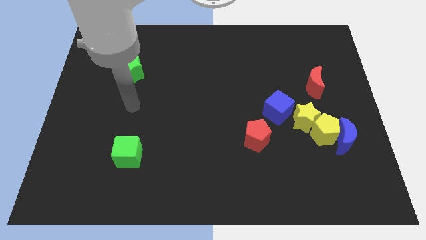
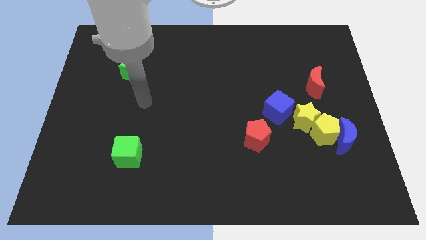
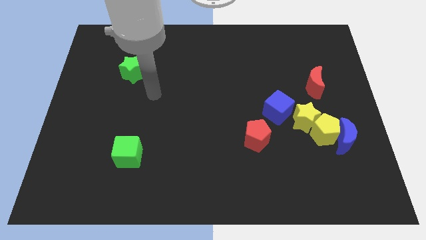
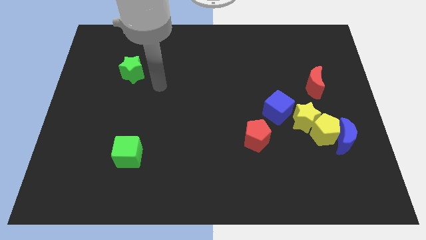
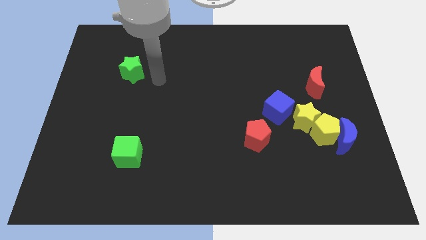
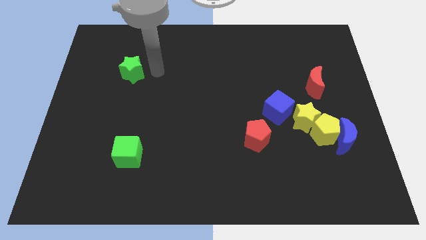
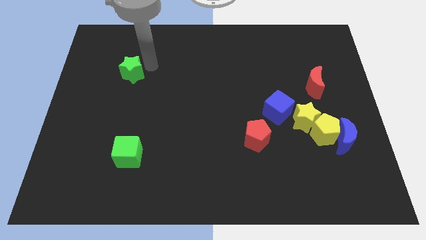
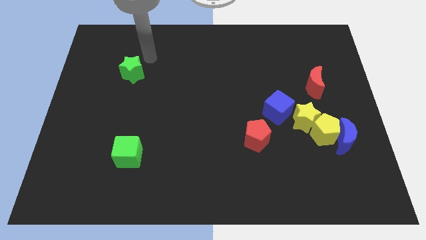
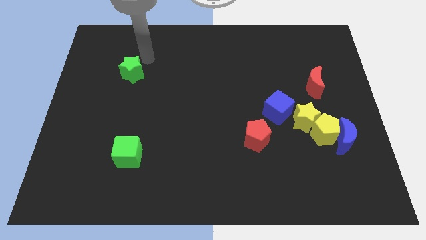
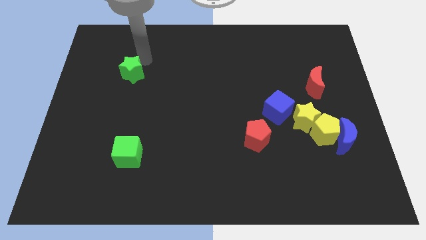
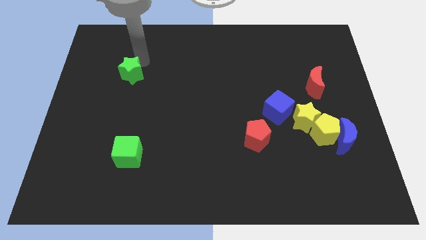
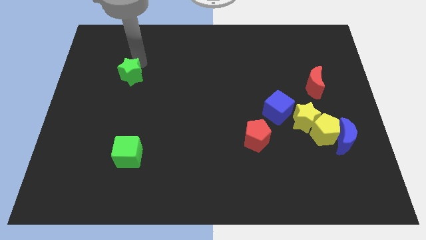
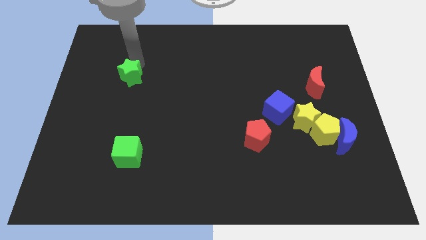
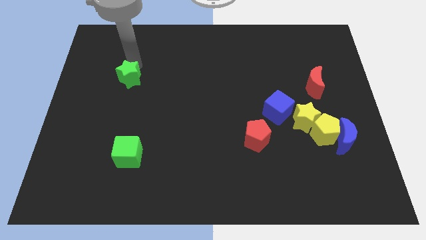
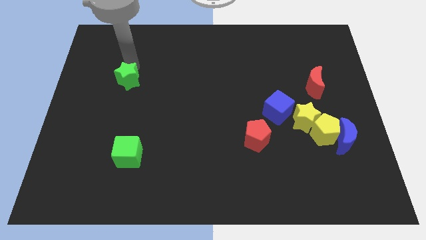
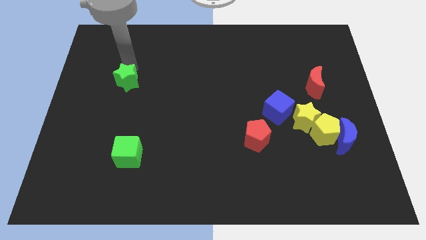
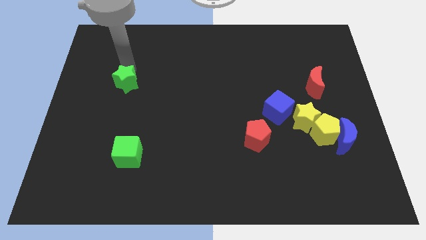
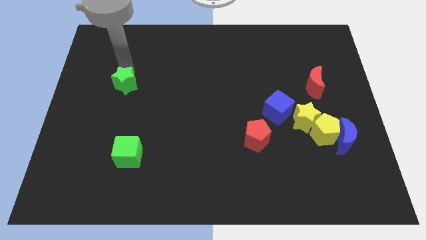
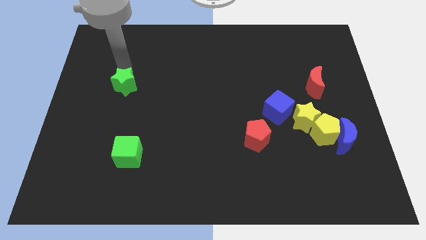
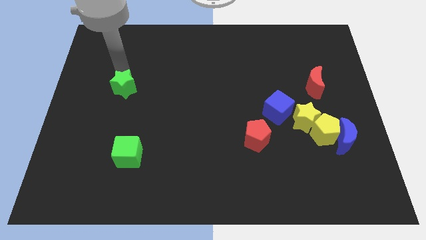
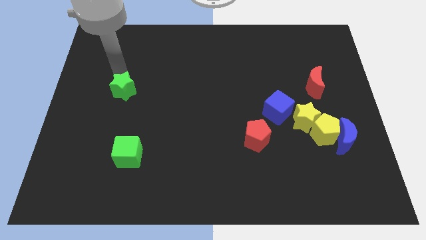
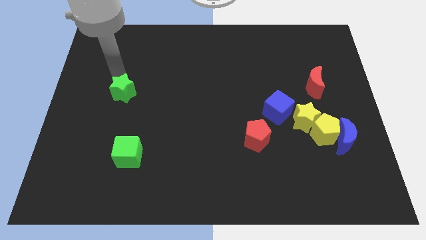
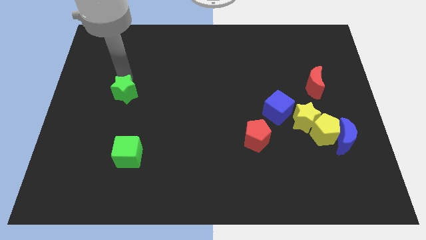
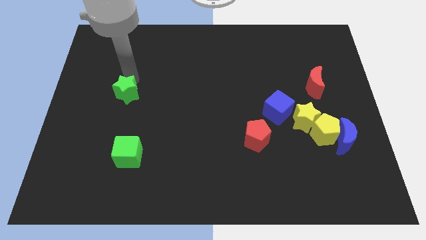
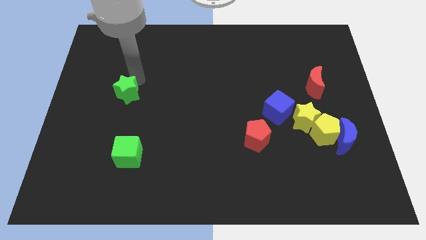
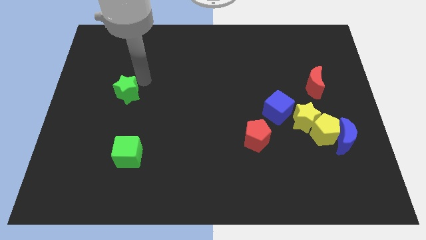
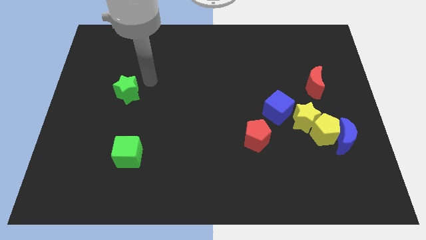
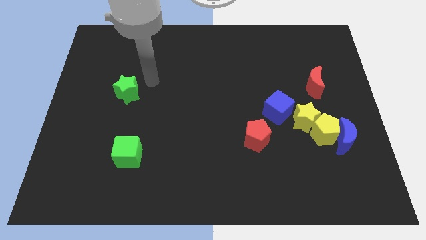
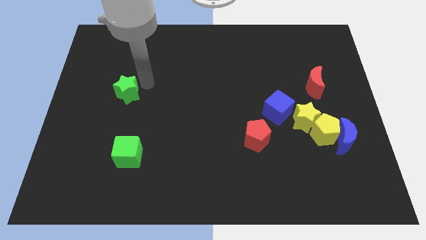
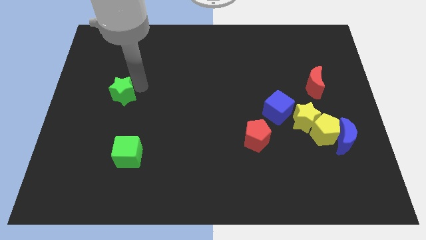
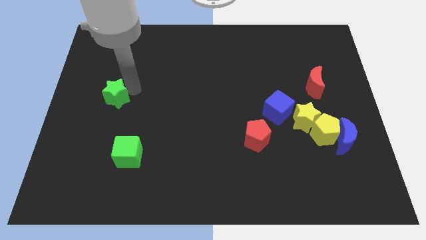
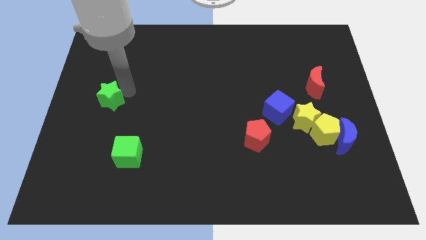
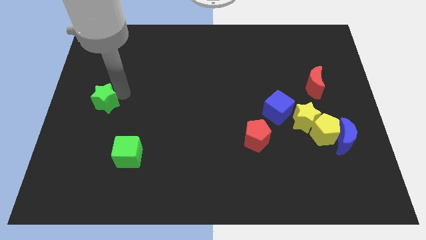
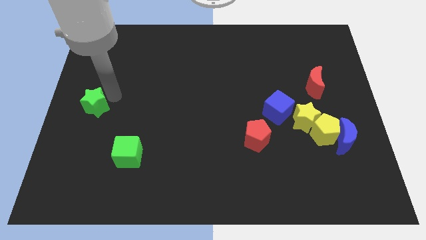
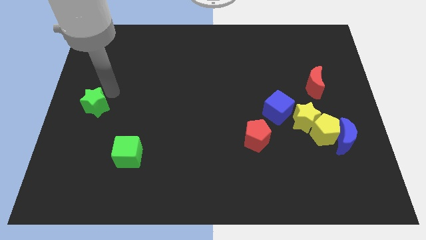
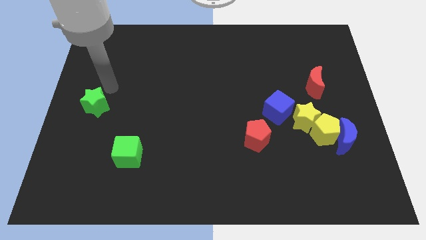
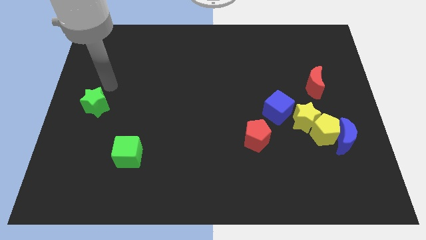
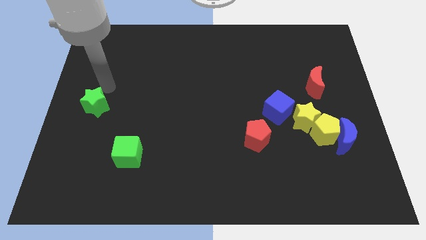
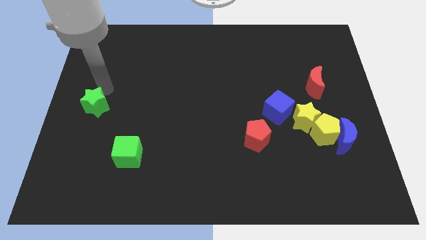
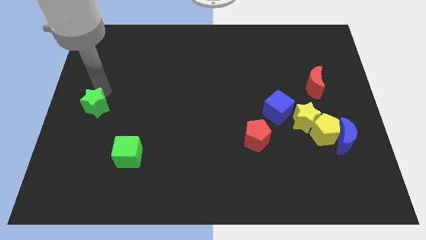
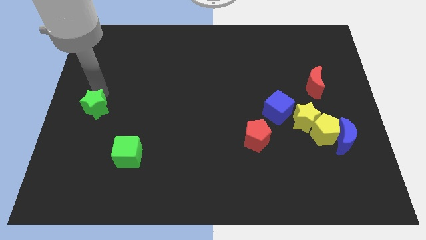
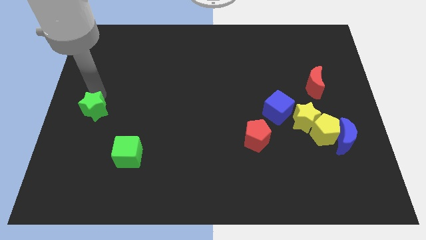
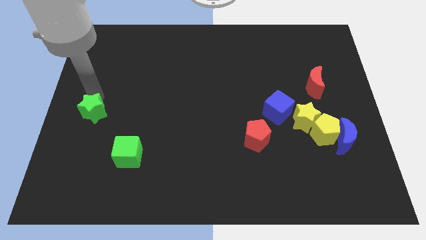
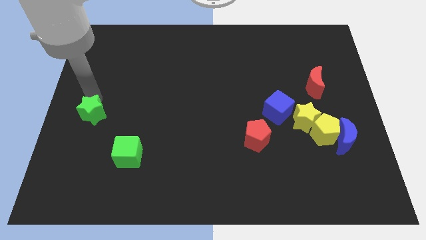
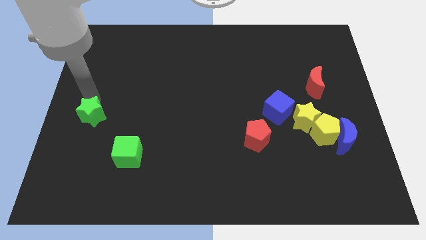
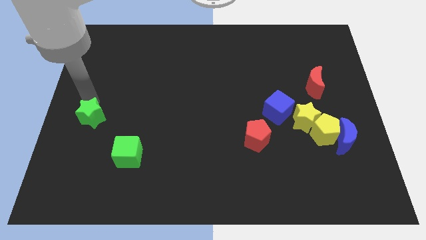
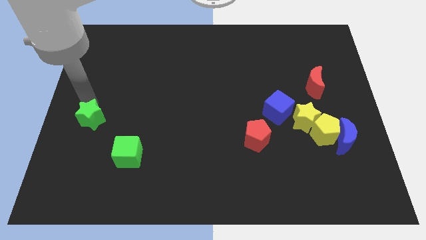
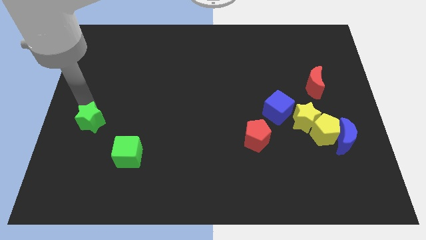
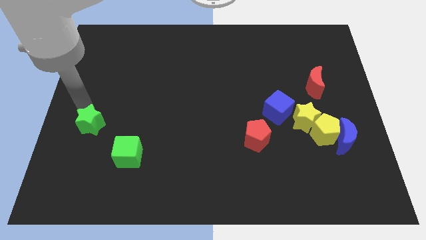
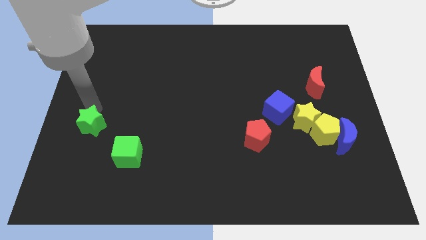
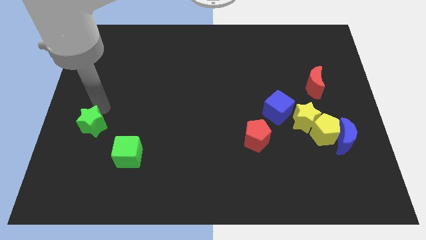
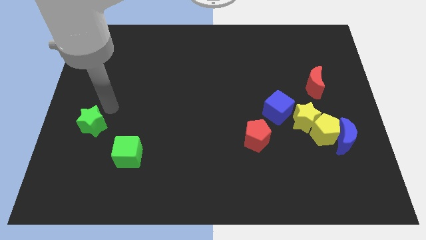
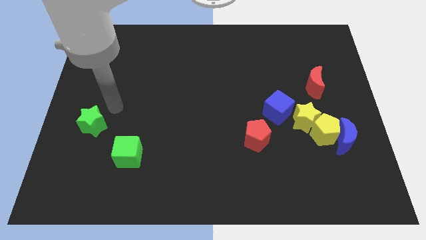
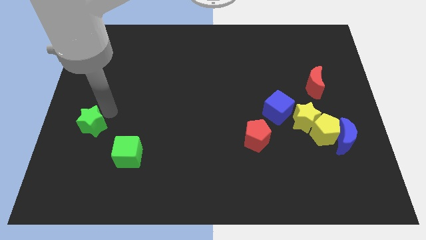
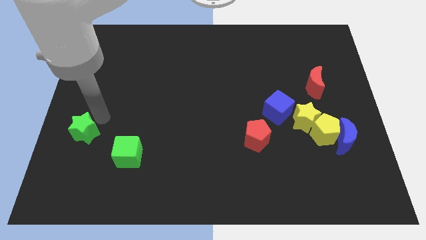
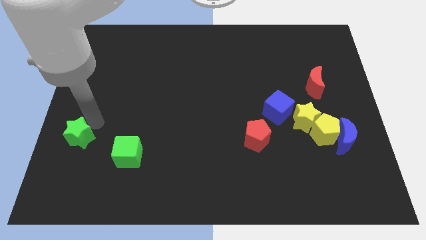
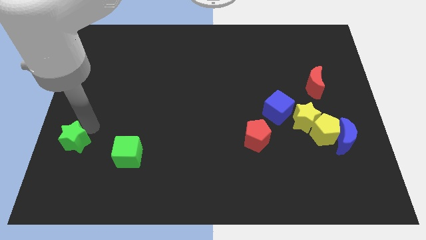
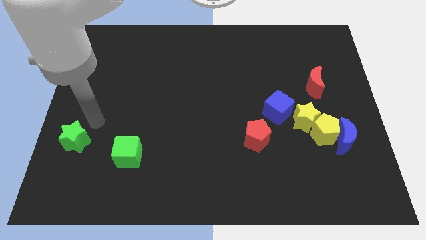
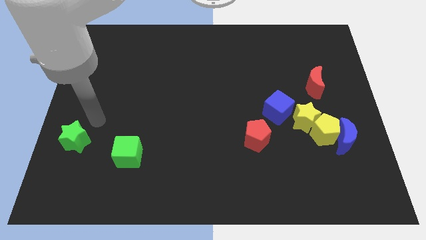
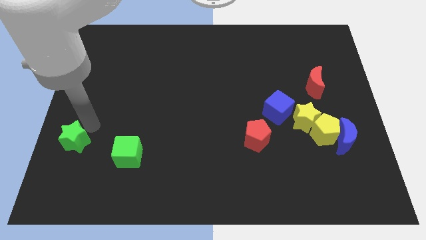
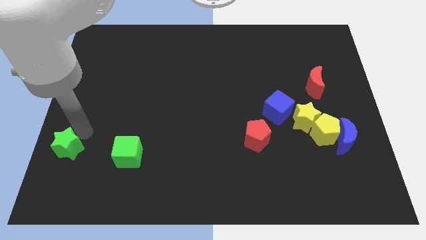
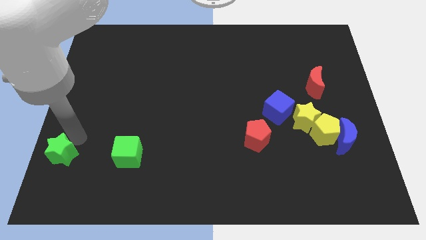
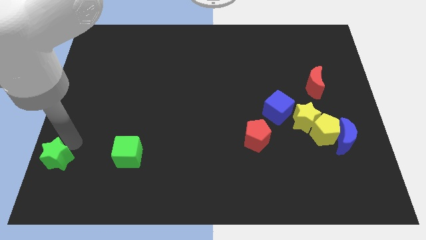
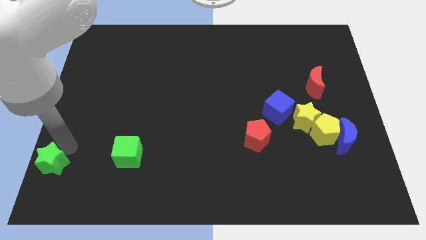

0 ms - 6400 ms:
slide the green star to the bottom left corner

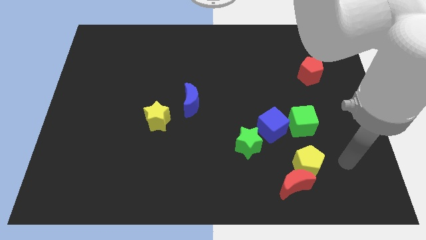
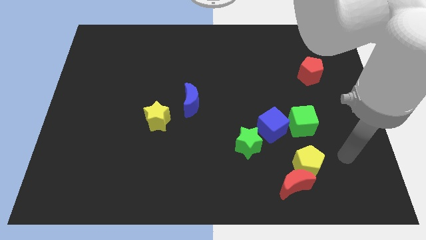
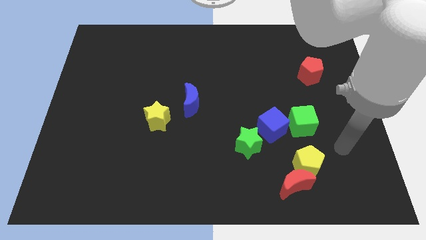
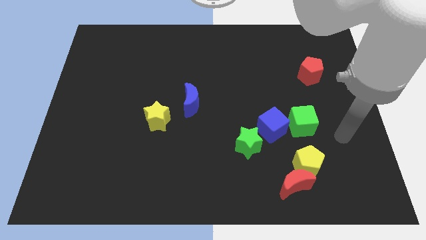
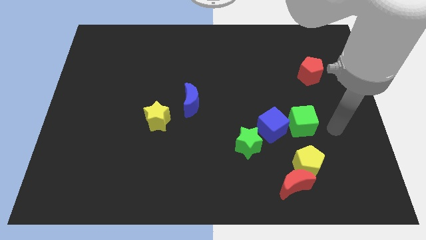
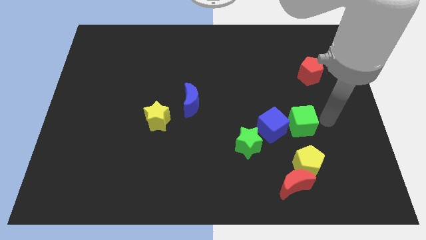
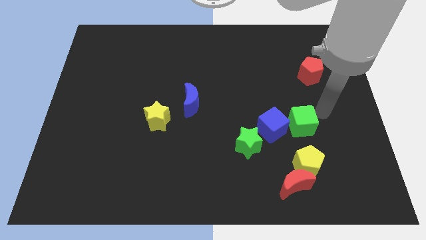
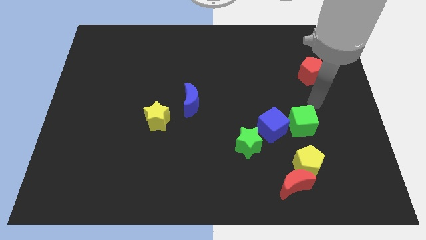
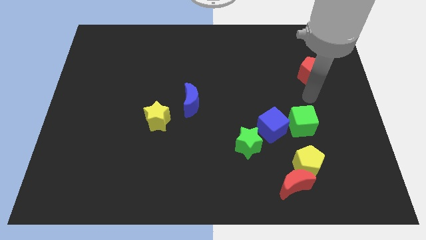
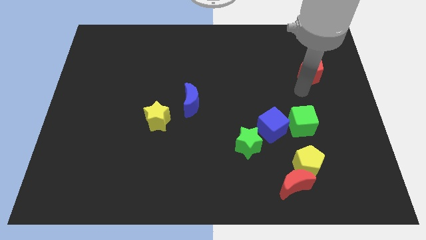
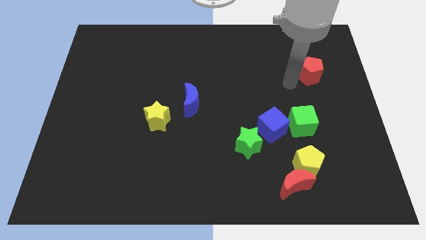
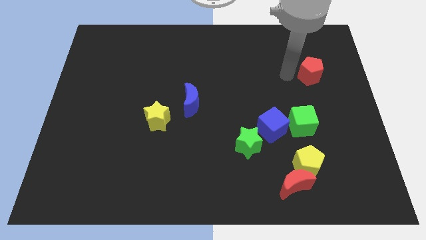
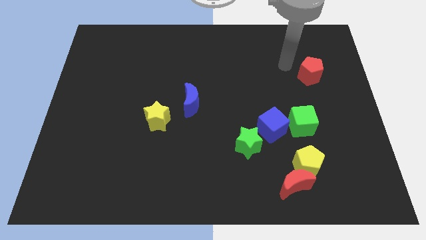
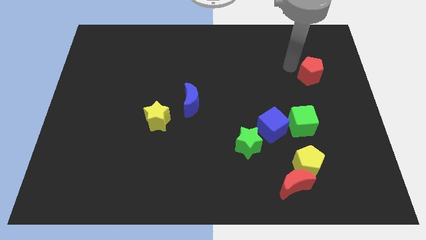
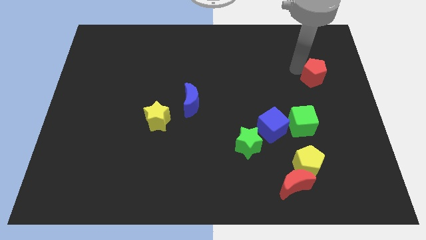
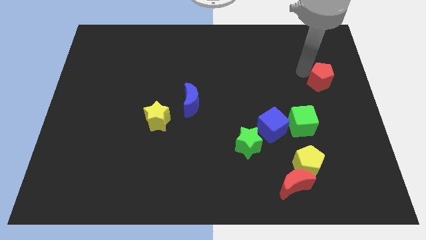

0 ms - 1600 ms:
move the red pentagon to the right side
